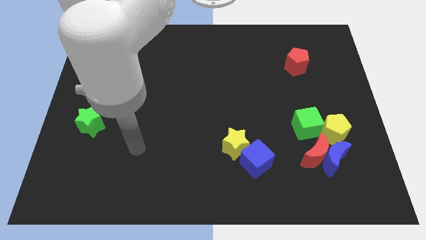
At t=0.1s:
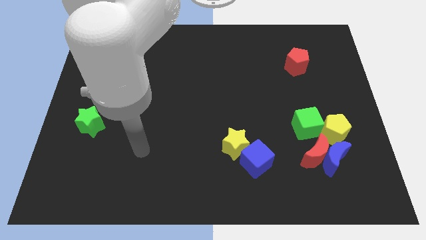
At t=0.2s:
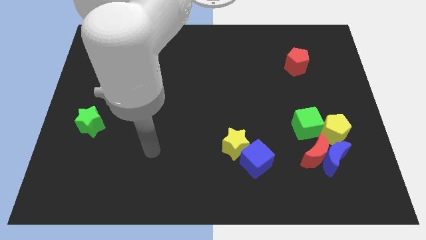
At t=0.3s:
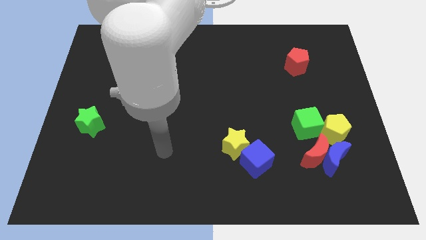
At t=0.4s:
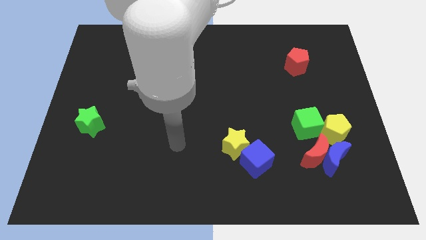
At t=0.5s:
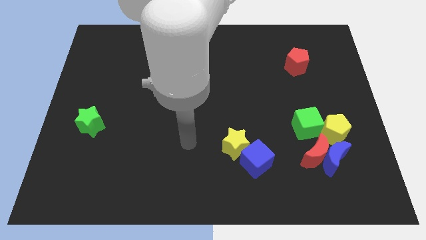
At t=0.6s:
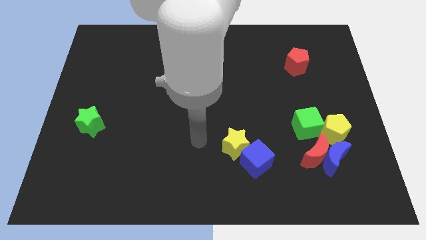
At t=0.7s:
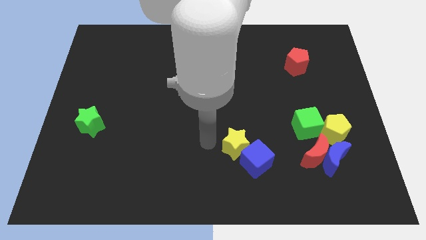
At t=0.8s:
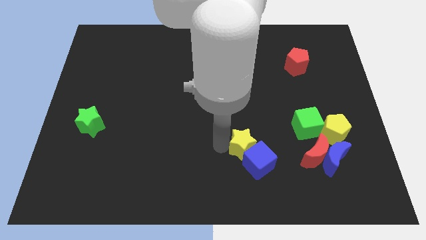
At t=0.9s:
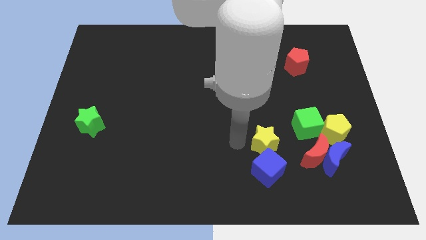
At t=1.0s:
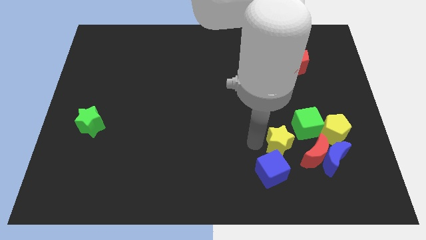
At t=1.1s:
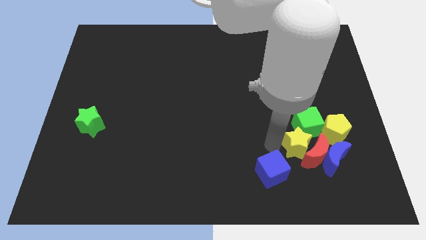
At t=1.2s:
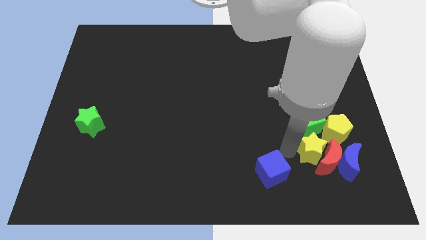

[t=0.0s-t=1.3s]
pull the blue cube apart from the yellow star

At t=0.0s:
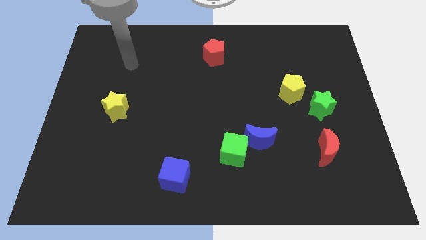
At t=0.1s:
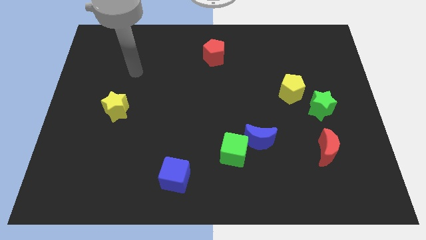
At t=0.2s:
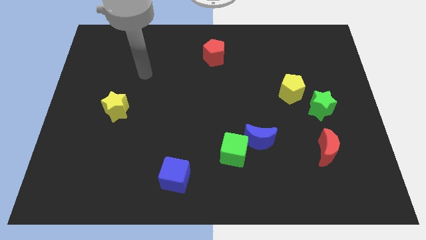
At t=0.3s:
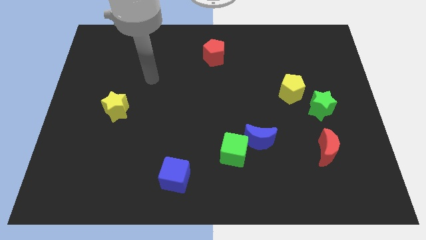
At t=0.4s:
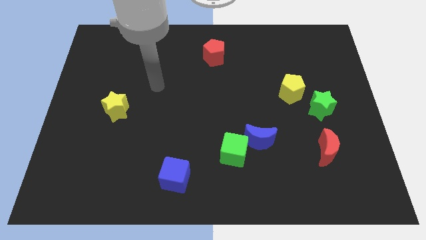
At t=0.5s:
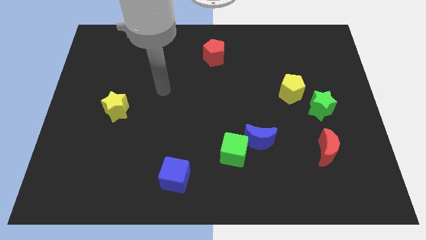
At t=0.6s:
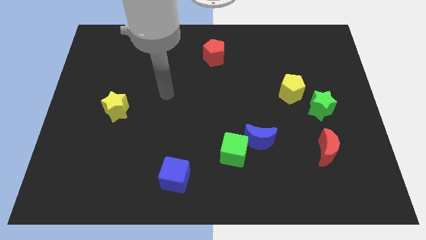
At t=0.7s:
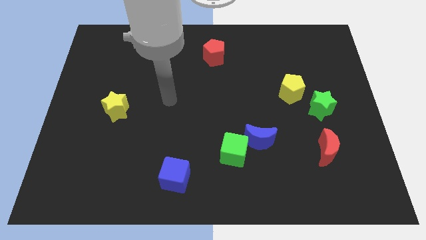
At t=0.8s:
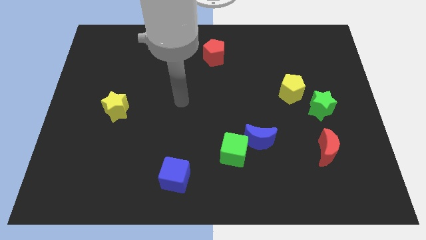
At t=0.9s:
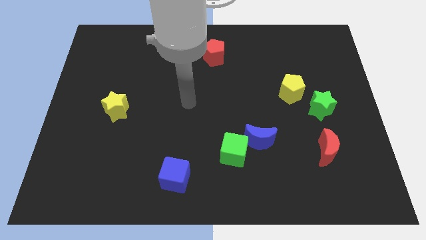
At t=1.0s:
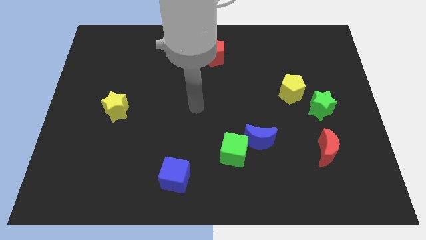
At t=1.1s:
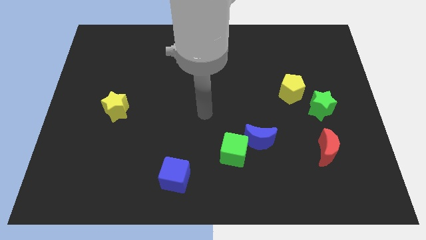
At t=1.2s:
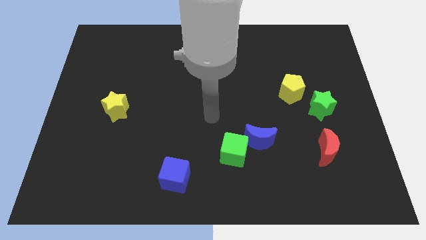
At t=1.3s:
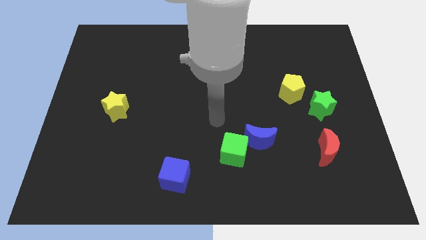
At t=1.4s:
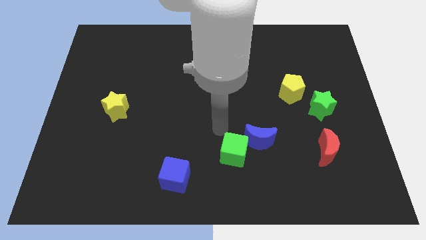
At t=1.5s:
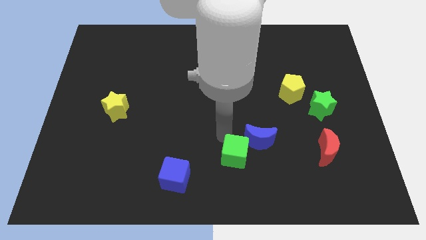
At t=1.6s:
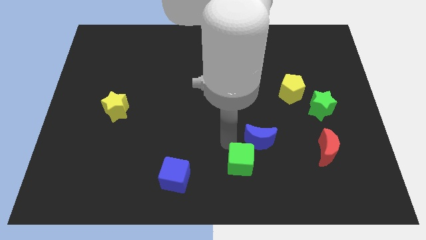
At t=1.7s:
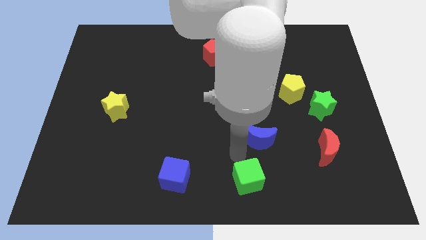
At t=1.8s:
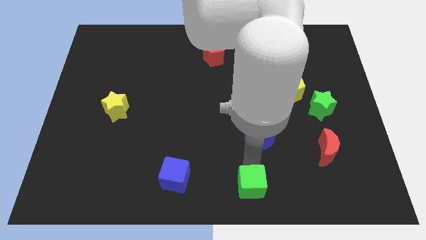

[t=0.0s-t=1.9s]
pull the blue moon apart from the green cube

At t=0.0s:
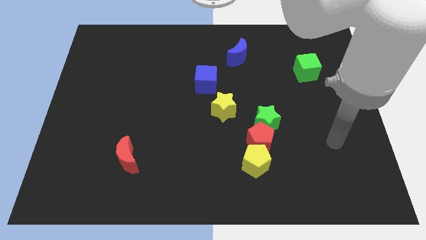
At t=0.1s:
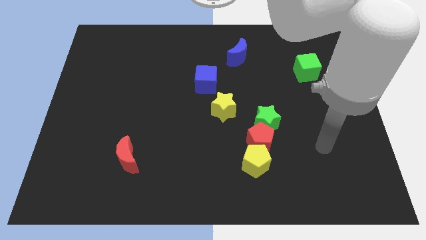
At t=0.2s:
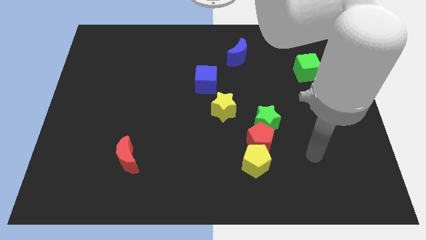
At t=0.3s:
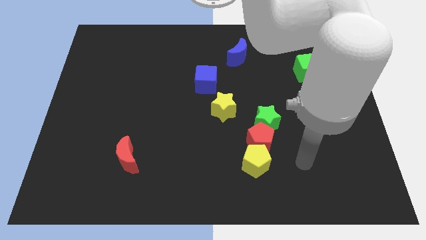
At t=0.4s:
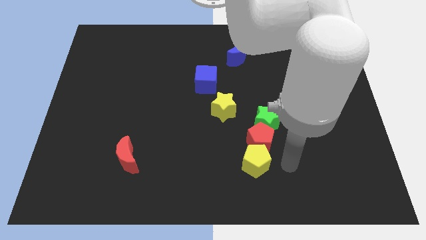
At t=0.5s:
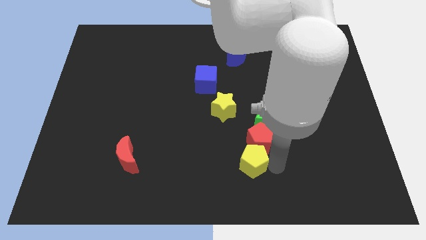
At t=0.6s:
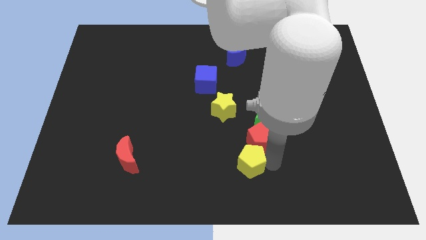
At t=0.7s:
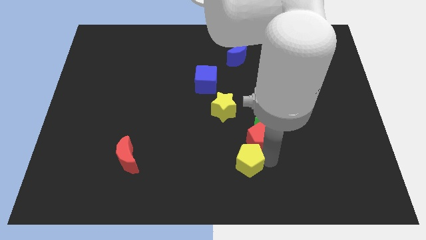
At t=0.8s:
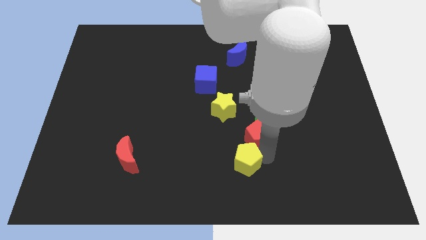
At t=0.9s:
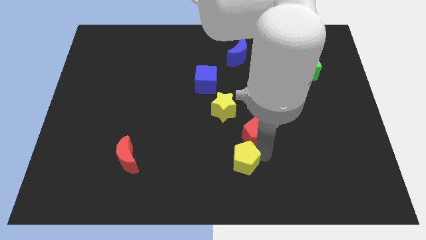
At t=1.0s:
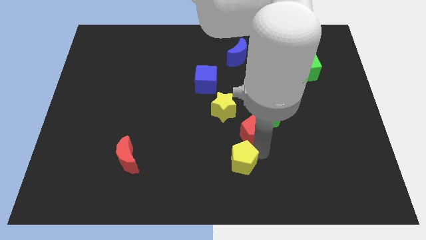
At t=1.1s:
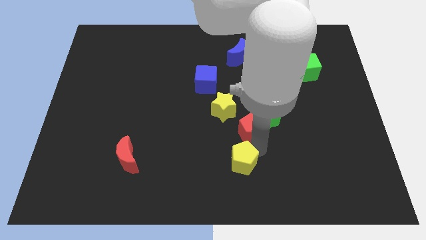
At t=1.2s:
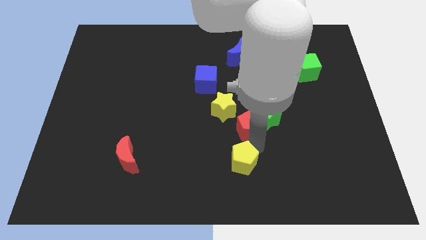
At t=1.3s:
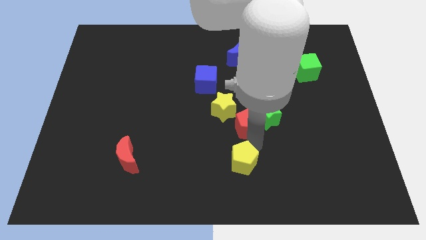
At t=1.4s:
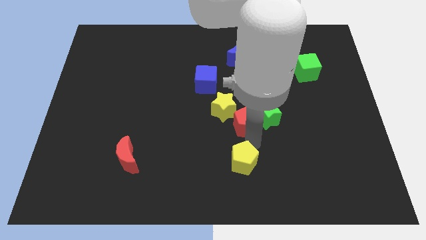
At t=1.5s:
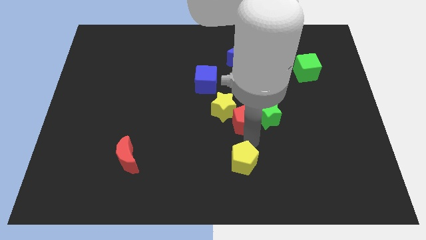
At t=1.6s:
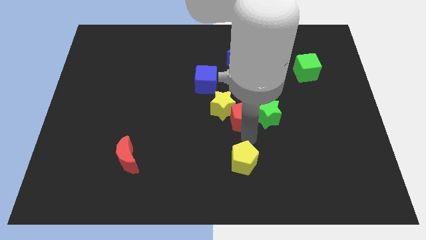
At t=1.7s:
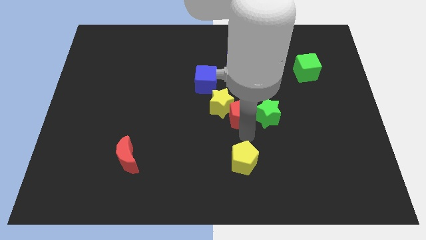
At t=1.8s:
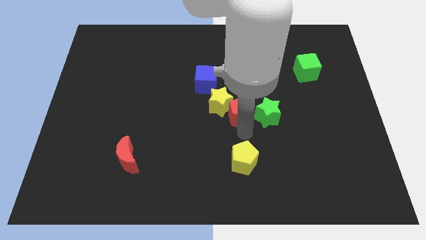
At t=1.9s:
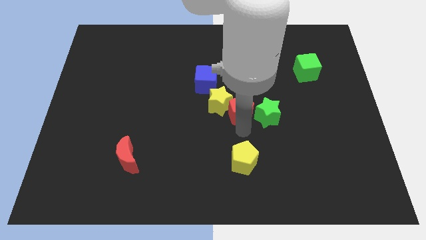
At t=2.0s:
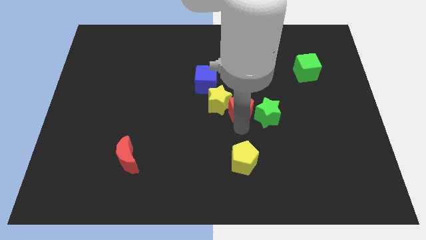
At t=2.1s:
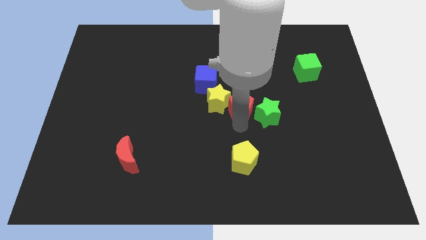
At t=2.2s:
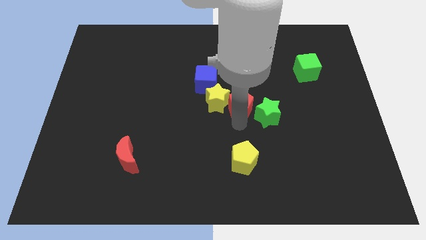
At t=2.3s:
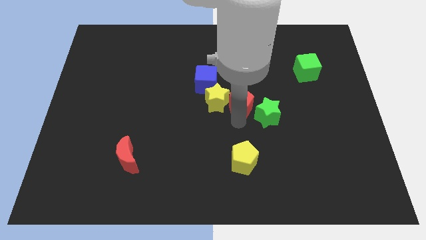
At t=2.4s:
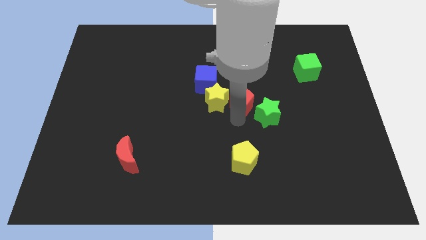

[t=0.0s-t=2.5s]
pull the red pentagon apart from the green star and yellow pentagon

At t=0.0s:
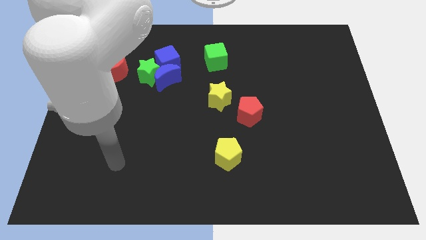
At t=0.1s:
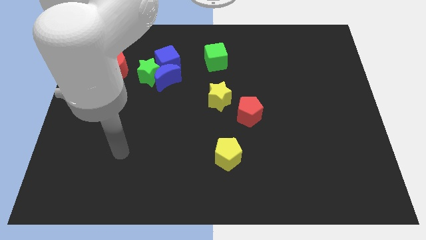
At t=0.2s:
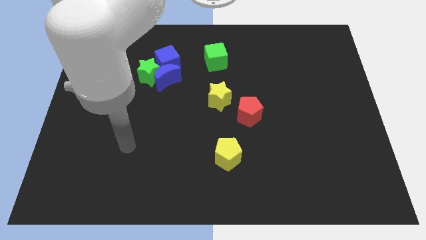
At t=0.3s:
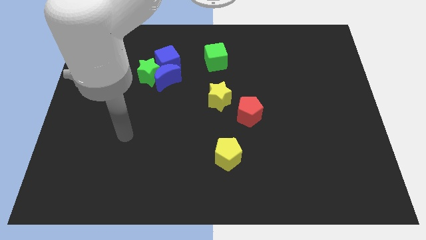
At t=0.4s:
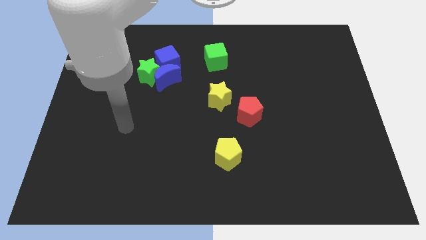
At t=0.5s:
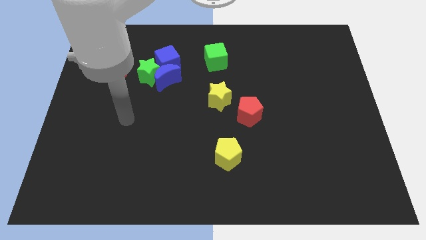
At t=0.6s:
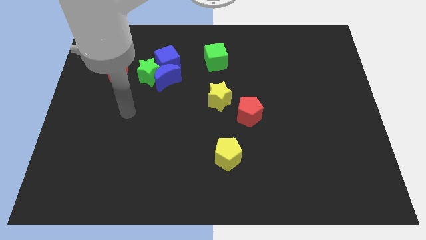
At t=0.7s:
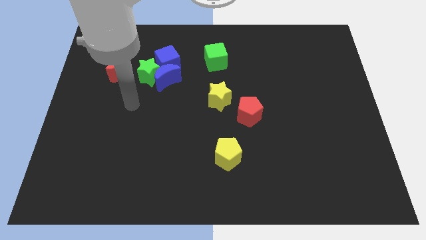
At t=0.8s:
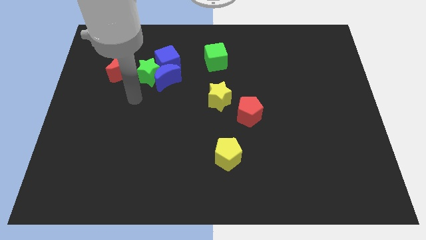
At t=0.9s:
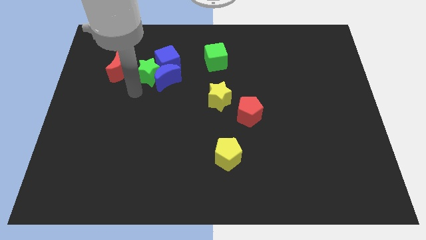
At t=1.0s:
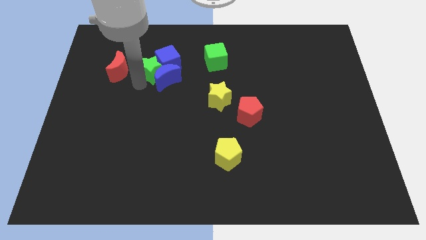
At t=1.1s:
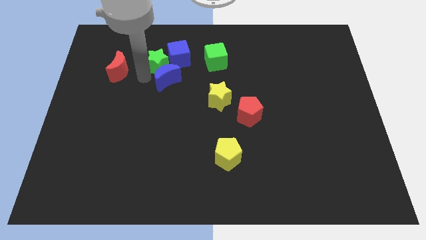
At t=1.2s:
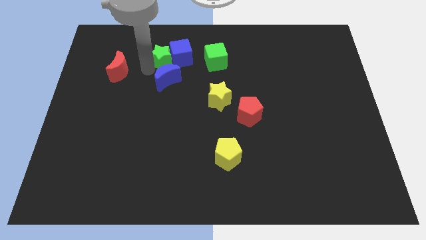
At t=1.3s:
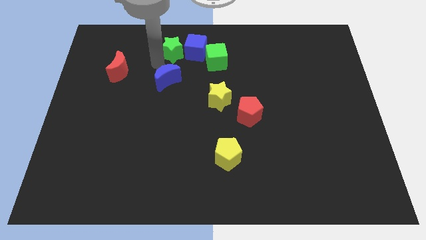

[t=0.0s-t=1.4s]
pull the blue moon apart from the green star and blue cube

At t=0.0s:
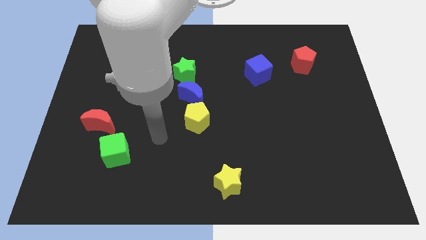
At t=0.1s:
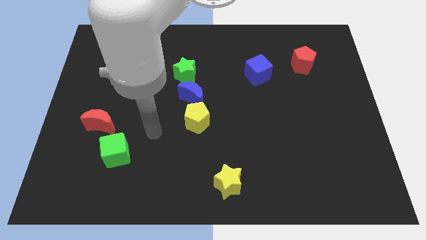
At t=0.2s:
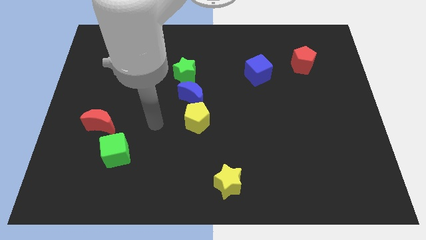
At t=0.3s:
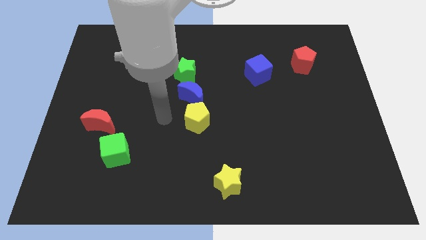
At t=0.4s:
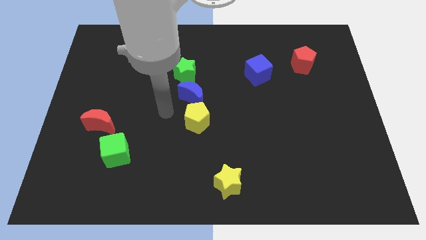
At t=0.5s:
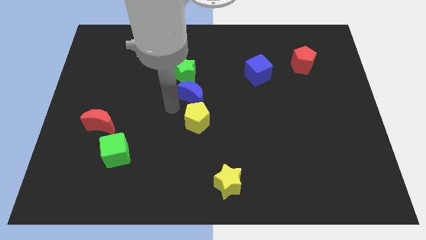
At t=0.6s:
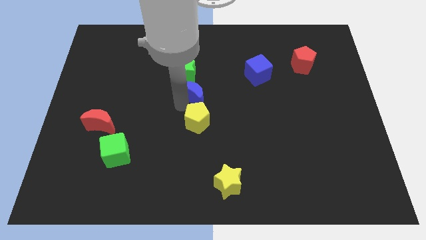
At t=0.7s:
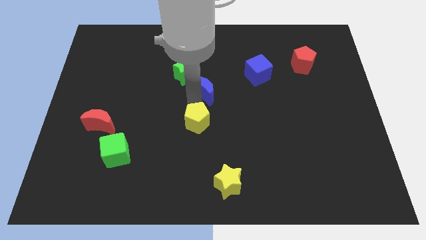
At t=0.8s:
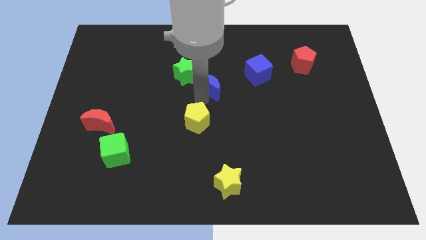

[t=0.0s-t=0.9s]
separate the yellow pentagon from the blue moon

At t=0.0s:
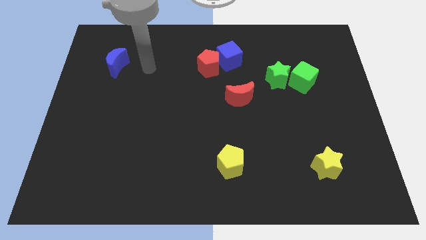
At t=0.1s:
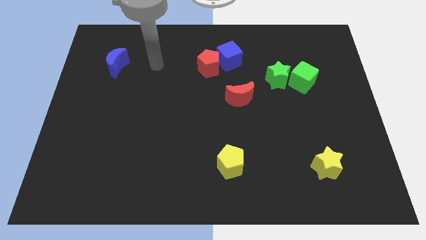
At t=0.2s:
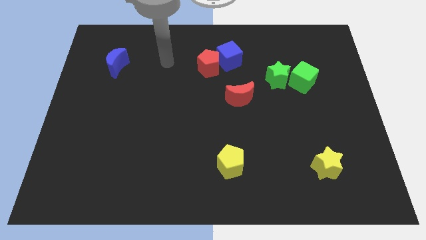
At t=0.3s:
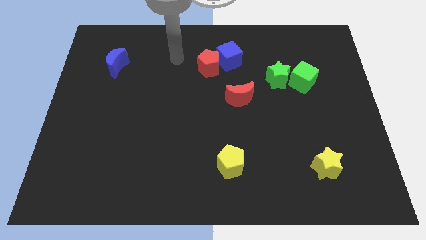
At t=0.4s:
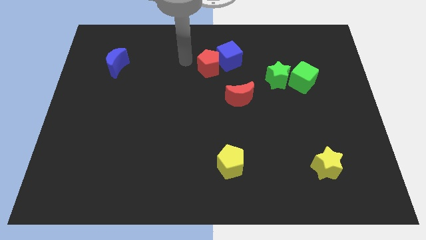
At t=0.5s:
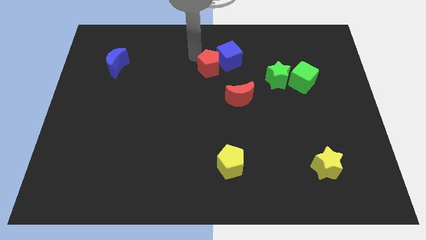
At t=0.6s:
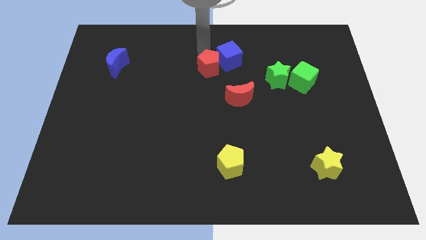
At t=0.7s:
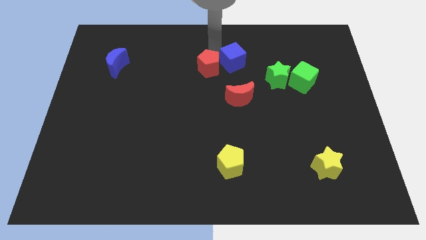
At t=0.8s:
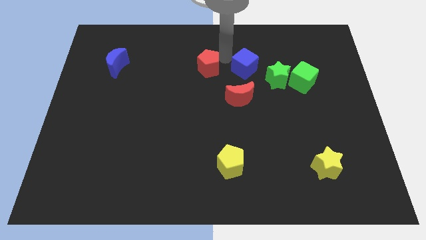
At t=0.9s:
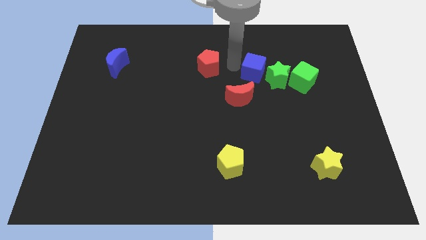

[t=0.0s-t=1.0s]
separate the red pentagon from the blue cube

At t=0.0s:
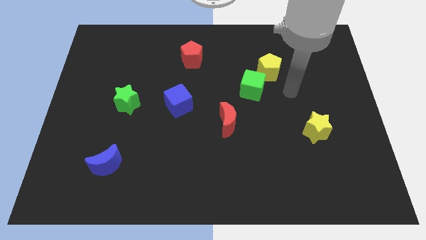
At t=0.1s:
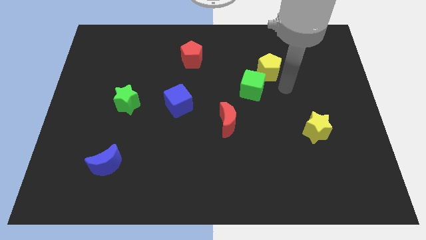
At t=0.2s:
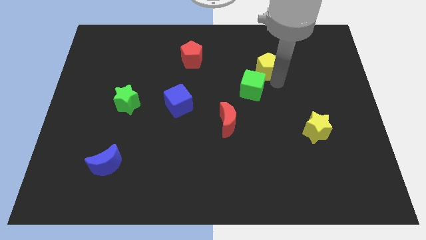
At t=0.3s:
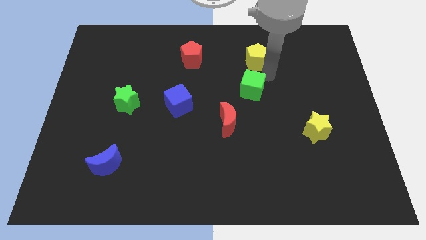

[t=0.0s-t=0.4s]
move the green cube away from the yellow pentagon
